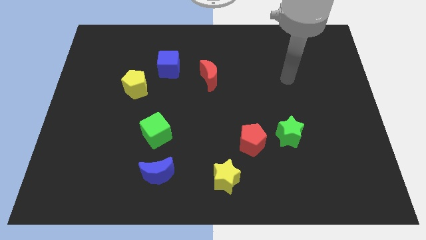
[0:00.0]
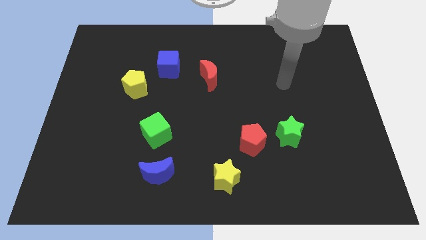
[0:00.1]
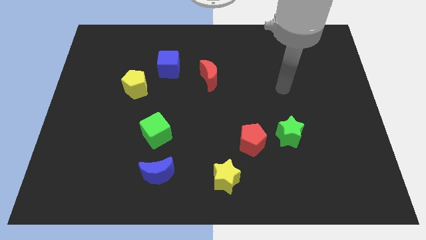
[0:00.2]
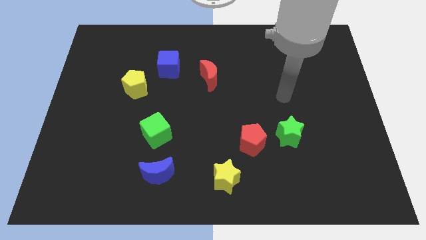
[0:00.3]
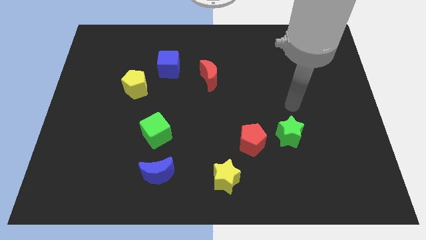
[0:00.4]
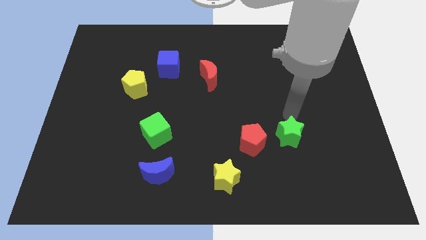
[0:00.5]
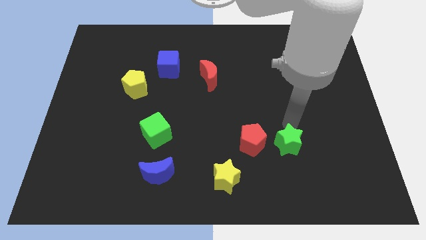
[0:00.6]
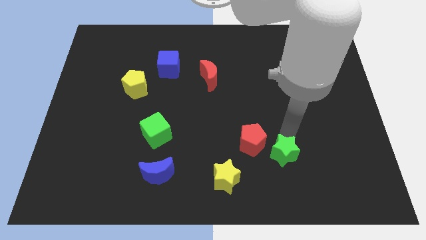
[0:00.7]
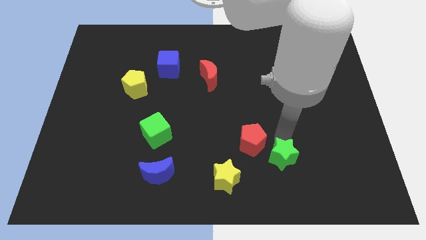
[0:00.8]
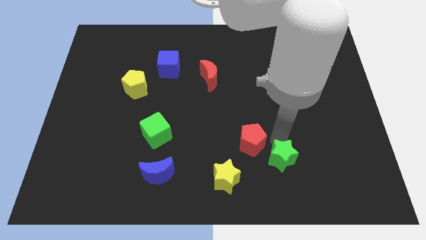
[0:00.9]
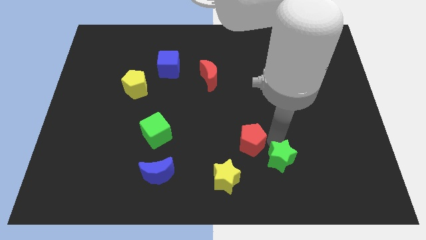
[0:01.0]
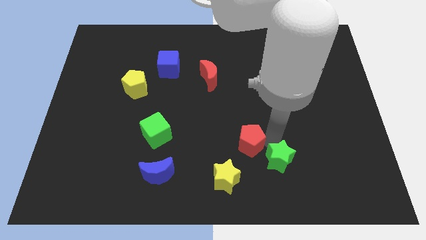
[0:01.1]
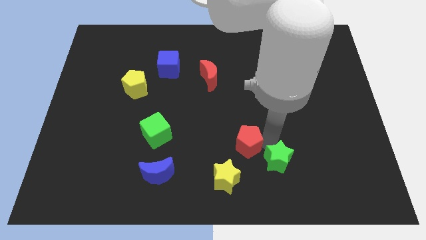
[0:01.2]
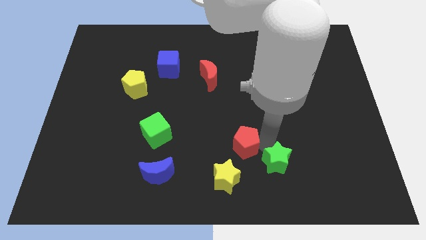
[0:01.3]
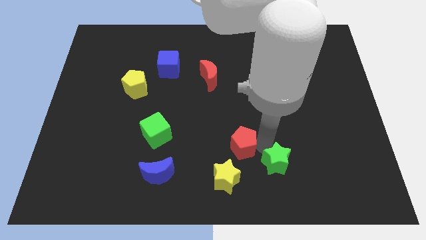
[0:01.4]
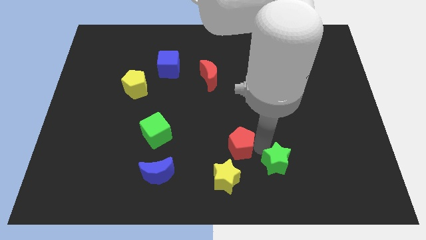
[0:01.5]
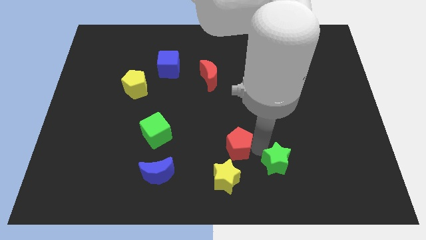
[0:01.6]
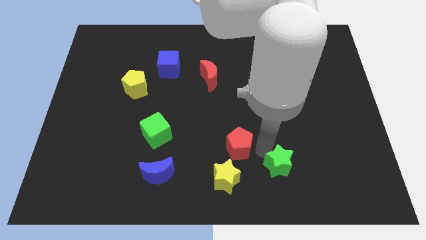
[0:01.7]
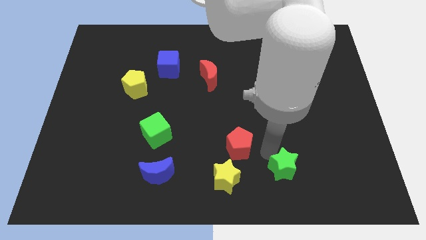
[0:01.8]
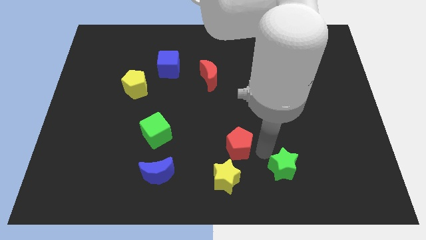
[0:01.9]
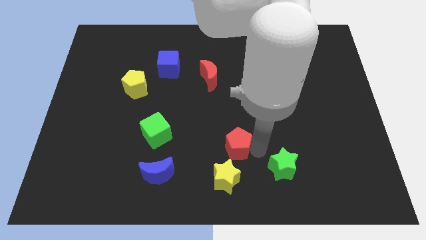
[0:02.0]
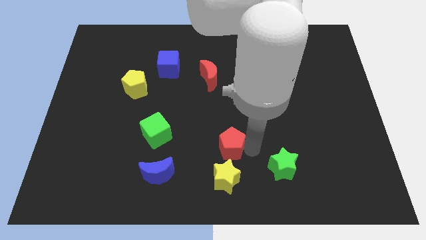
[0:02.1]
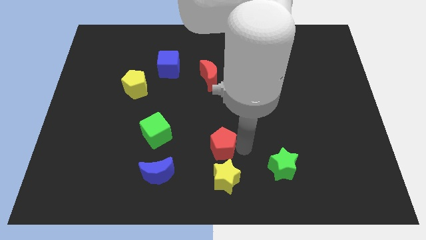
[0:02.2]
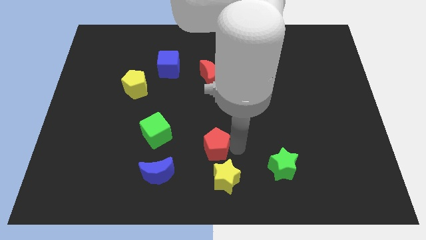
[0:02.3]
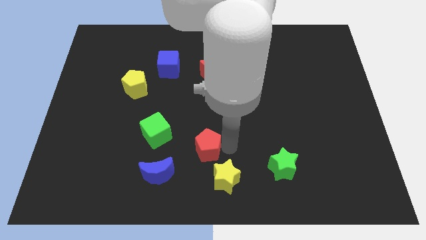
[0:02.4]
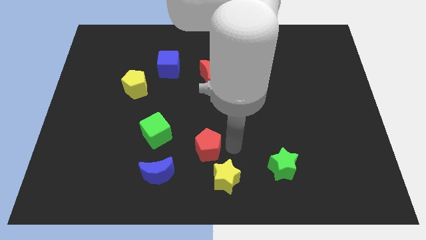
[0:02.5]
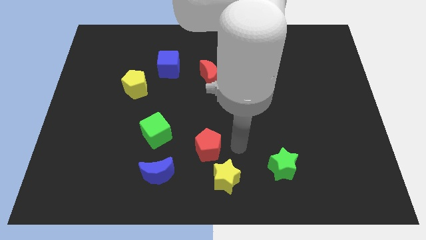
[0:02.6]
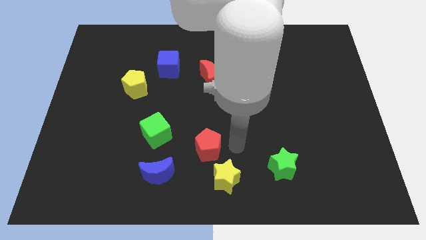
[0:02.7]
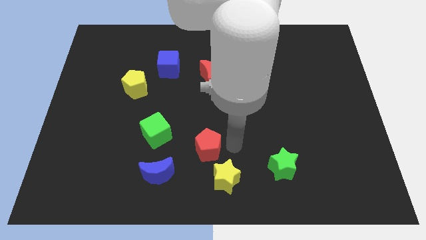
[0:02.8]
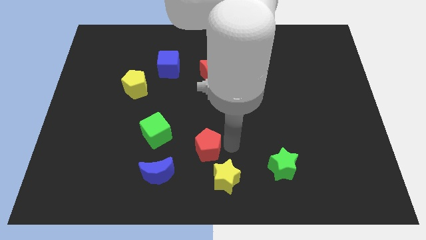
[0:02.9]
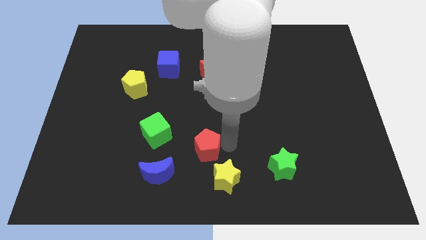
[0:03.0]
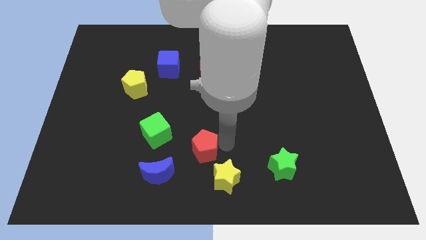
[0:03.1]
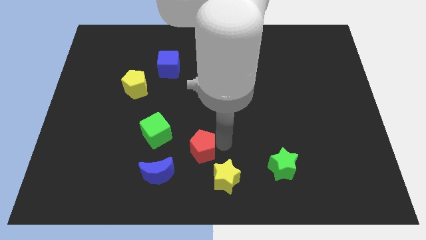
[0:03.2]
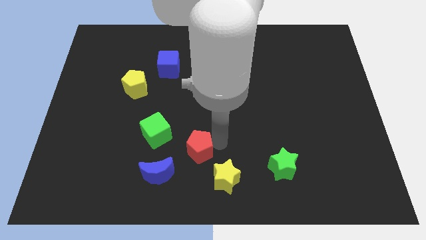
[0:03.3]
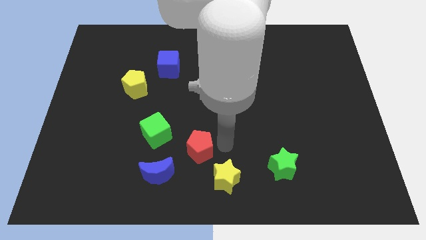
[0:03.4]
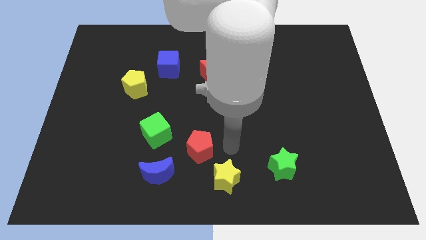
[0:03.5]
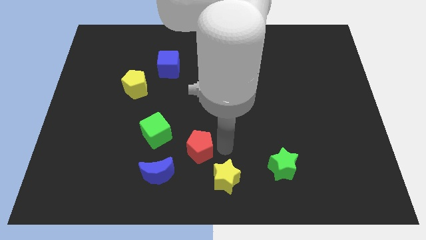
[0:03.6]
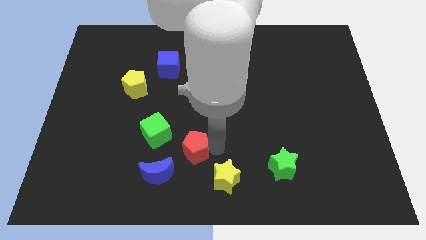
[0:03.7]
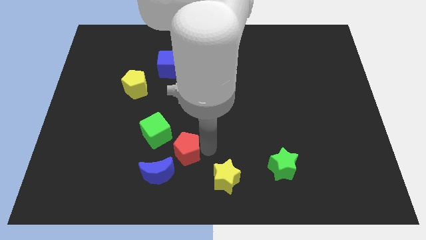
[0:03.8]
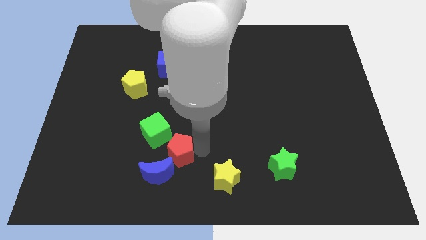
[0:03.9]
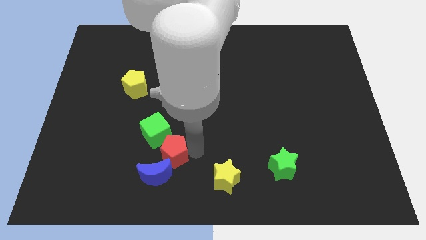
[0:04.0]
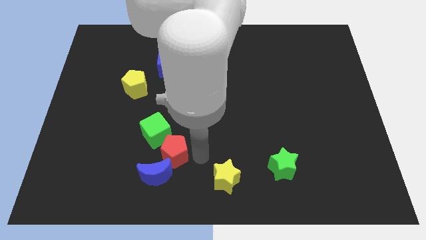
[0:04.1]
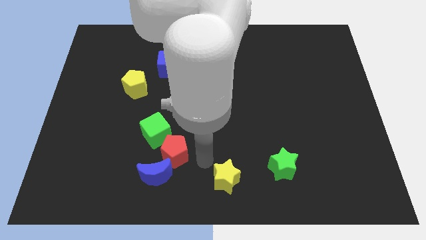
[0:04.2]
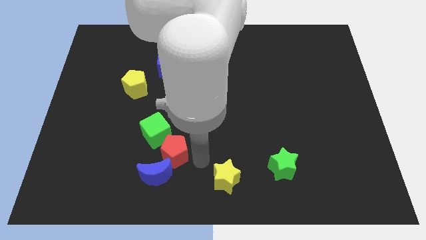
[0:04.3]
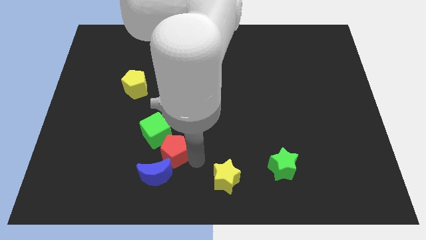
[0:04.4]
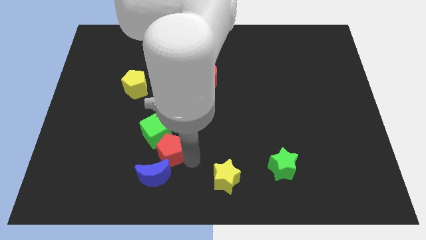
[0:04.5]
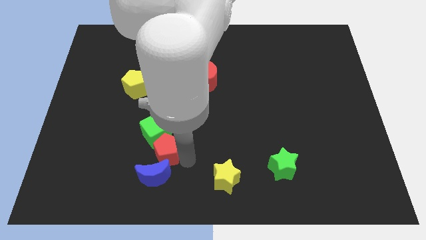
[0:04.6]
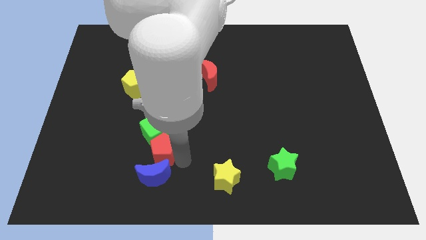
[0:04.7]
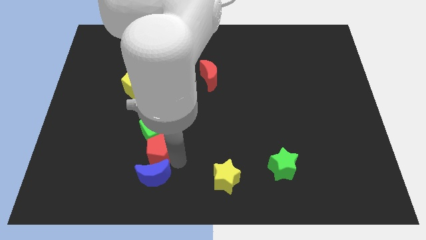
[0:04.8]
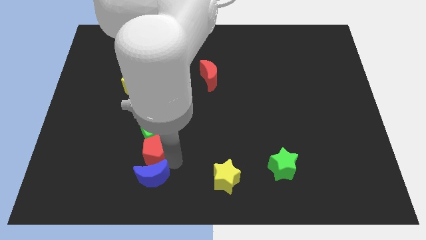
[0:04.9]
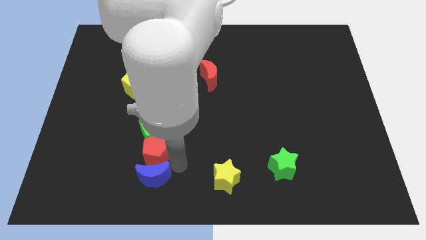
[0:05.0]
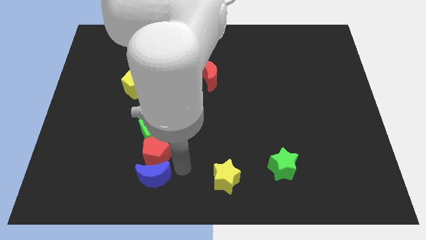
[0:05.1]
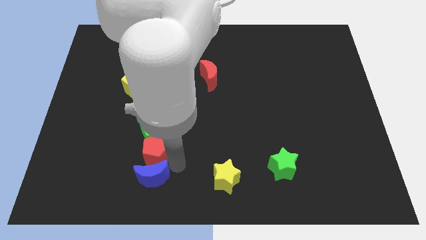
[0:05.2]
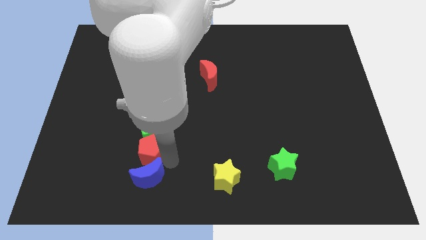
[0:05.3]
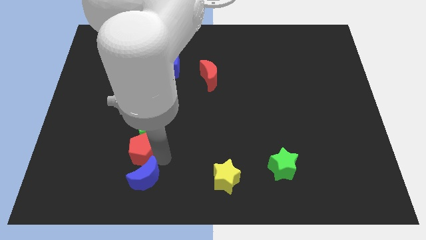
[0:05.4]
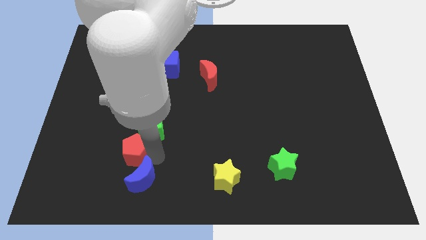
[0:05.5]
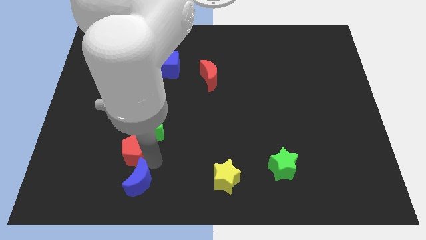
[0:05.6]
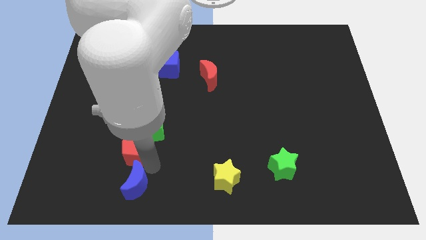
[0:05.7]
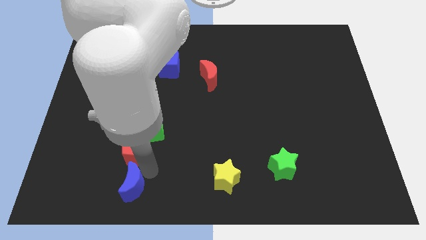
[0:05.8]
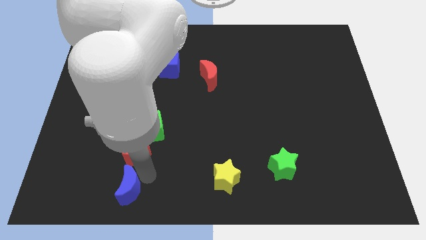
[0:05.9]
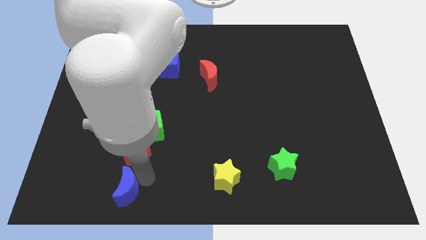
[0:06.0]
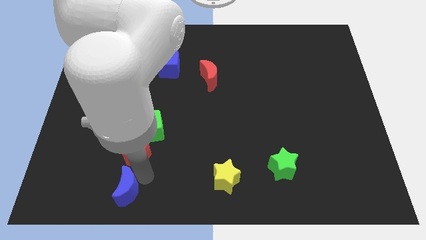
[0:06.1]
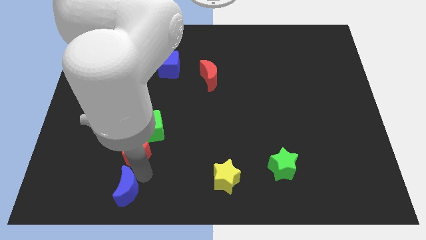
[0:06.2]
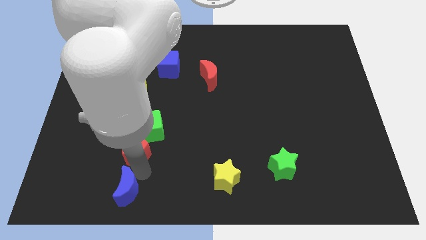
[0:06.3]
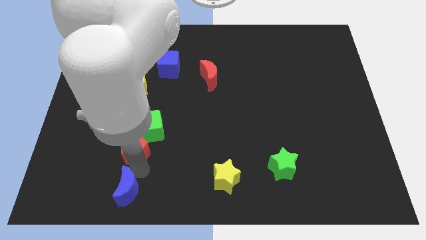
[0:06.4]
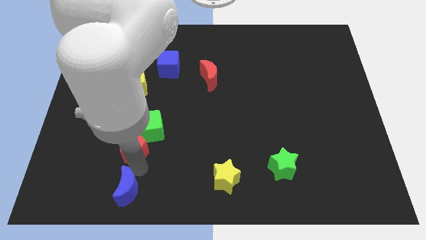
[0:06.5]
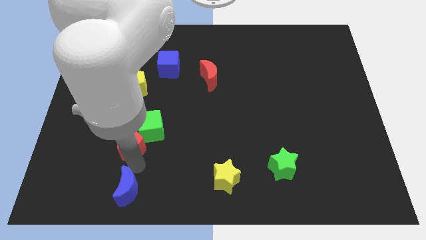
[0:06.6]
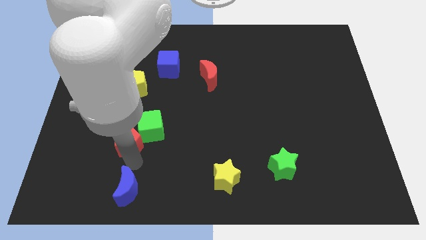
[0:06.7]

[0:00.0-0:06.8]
move the red pentagon just left of the green cube

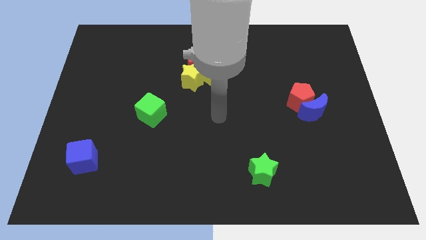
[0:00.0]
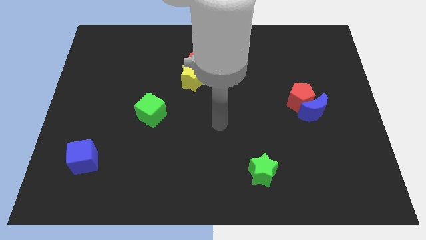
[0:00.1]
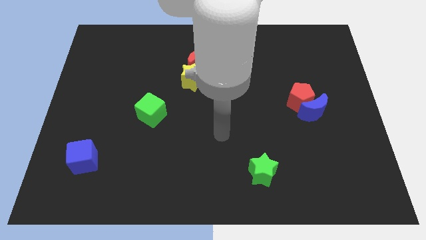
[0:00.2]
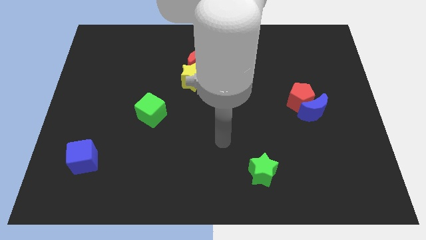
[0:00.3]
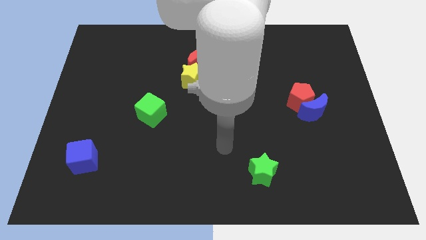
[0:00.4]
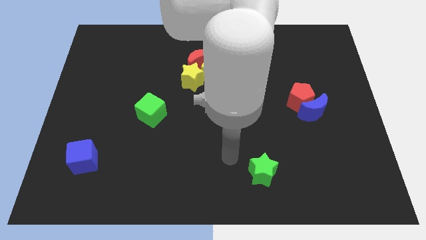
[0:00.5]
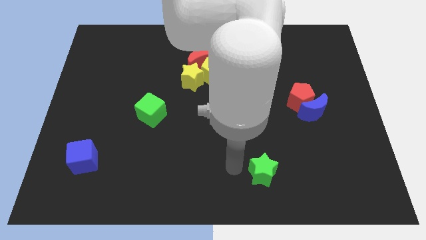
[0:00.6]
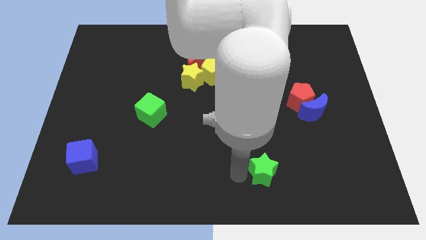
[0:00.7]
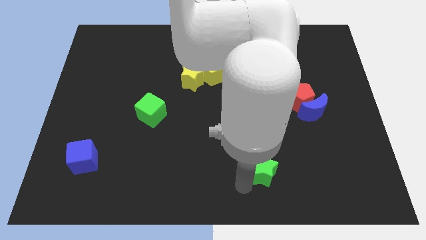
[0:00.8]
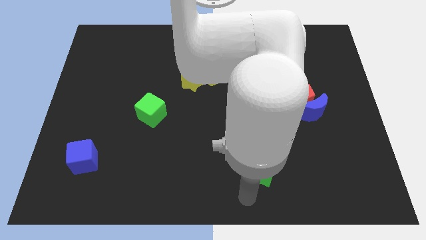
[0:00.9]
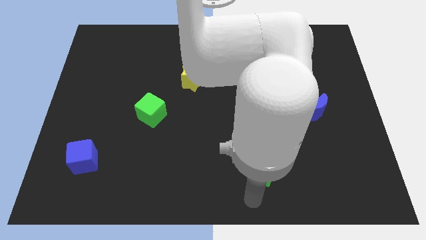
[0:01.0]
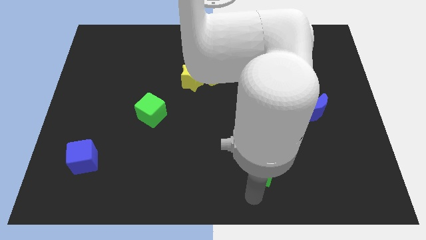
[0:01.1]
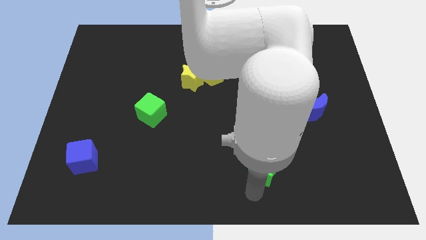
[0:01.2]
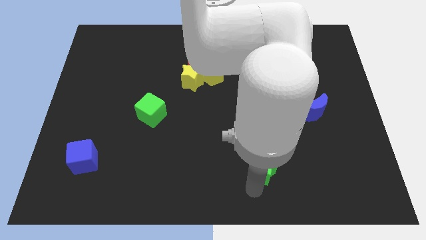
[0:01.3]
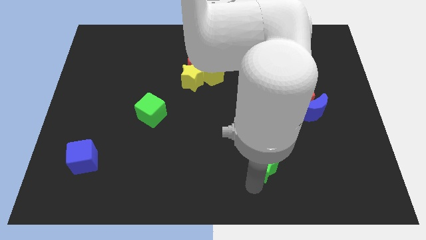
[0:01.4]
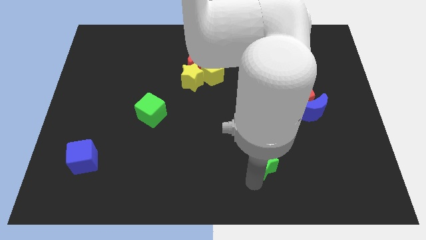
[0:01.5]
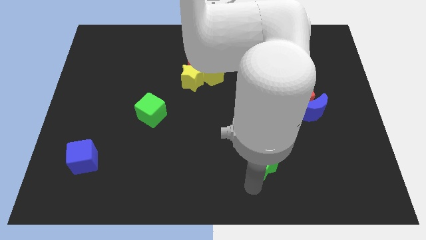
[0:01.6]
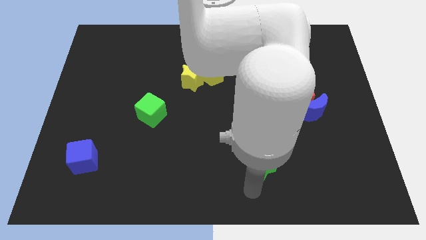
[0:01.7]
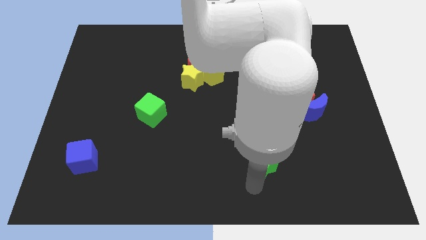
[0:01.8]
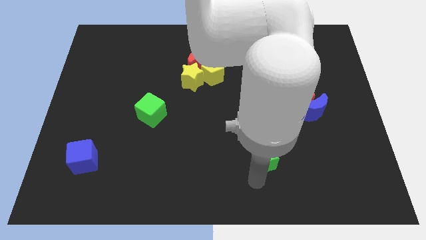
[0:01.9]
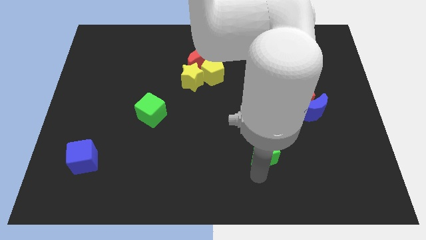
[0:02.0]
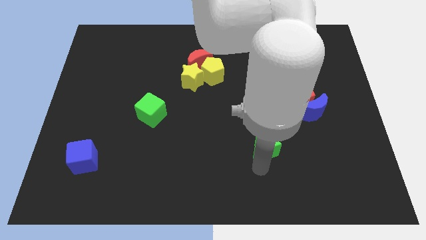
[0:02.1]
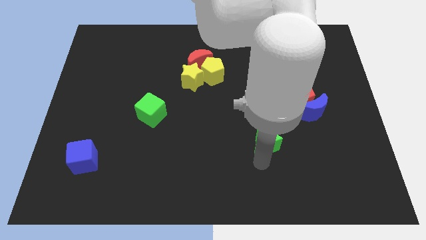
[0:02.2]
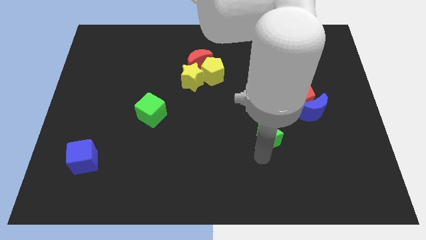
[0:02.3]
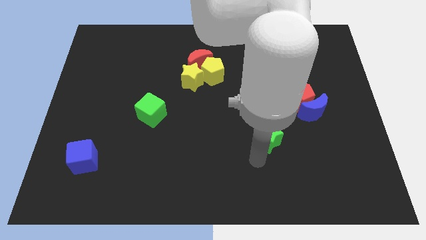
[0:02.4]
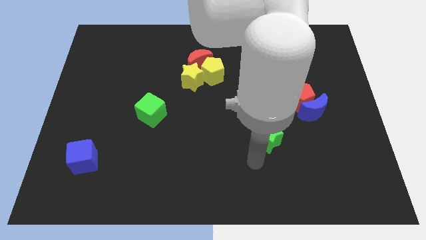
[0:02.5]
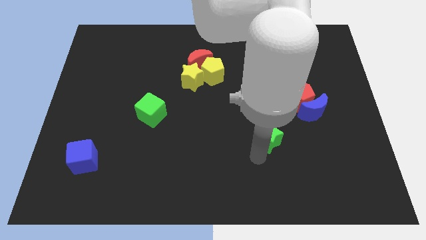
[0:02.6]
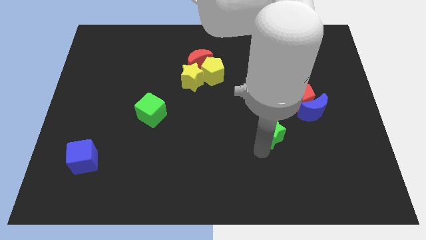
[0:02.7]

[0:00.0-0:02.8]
move the green star to the bottom left side of the red pentagon
